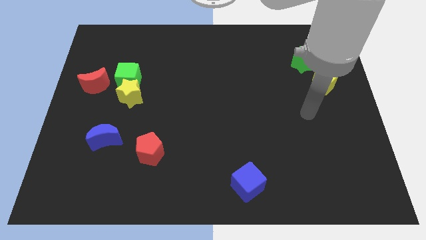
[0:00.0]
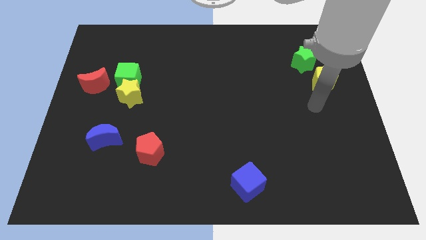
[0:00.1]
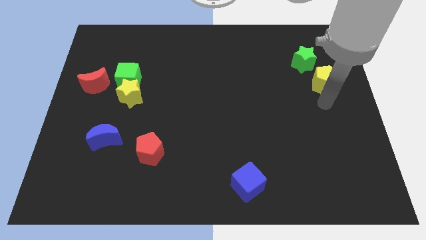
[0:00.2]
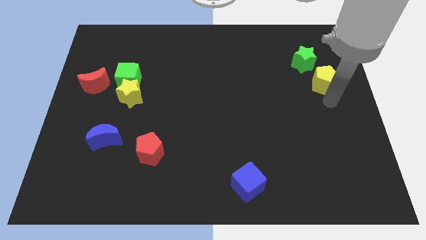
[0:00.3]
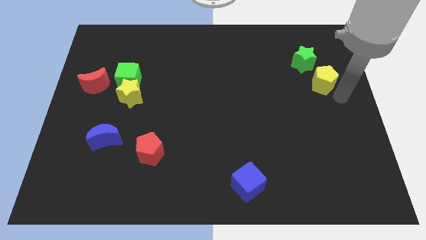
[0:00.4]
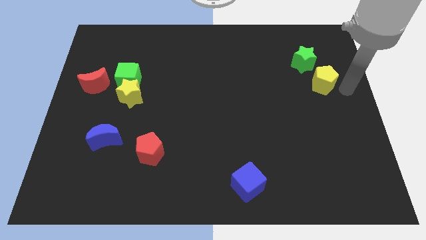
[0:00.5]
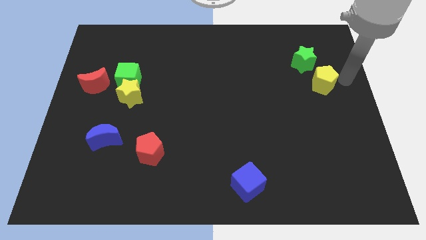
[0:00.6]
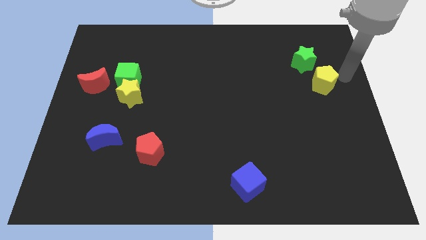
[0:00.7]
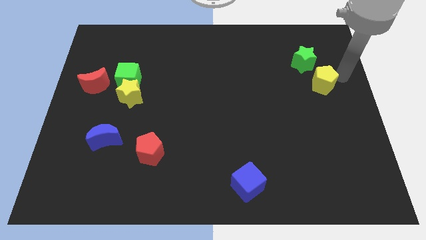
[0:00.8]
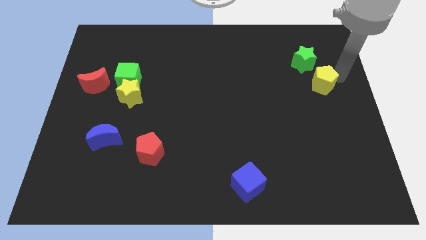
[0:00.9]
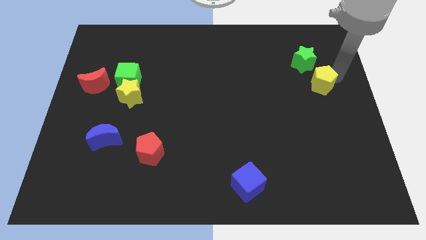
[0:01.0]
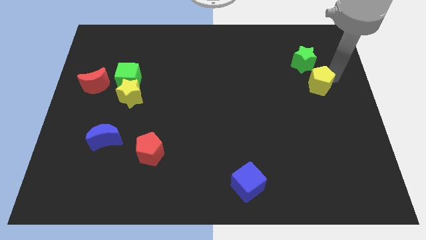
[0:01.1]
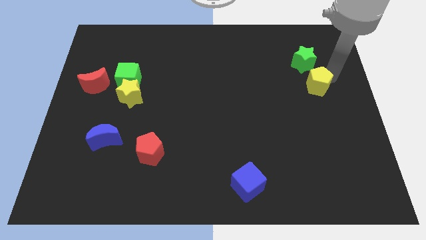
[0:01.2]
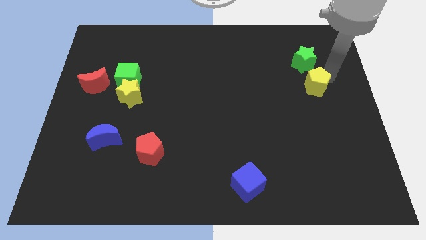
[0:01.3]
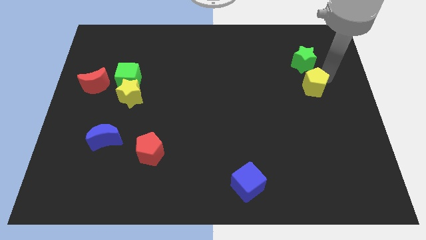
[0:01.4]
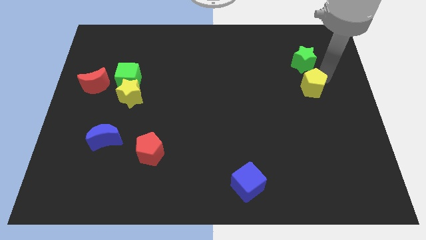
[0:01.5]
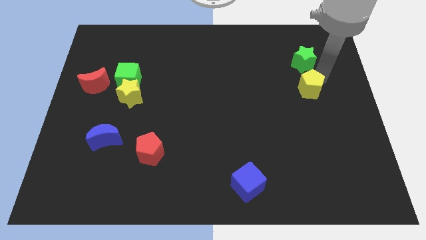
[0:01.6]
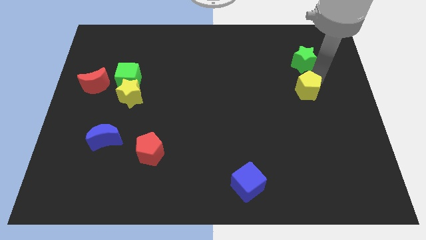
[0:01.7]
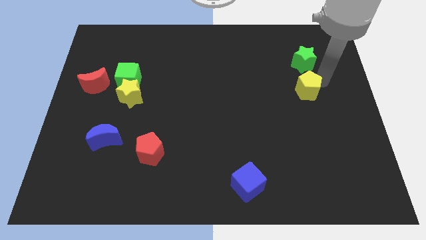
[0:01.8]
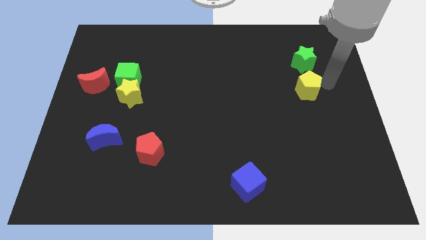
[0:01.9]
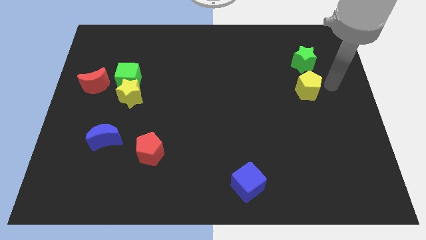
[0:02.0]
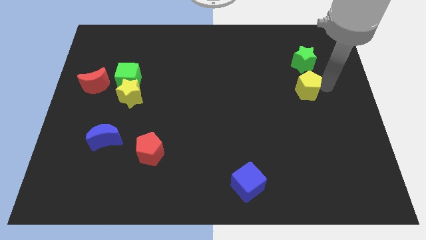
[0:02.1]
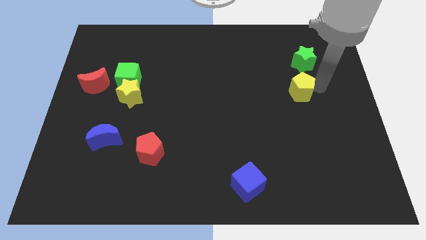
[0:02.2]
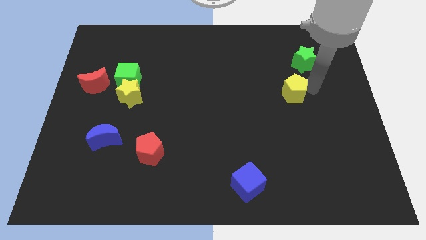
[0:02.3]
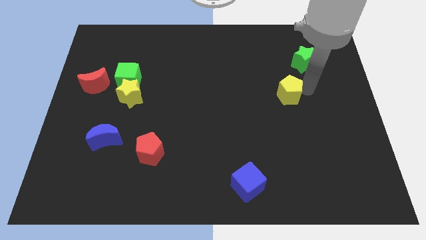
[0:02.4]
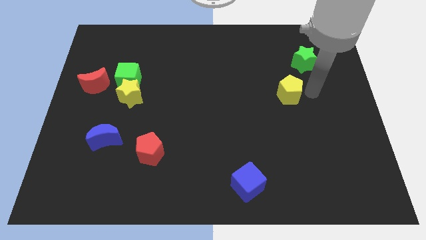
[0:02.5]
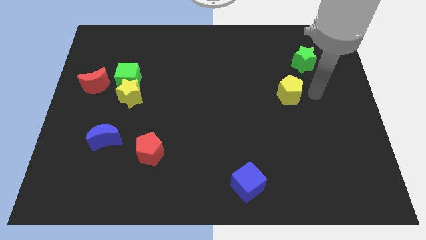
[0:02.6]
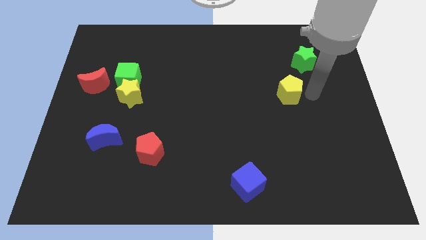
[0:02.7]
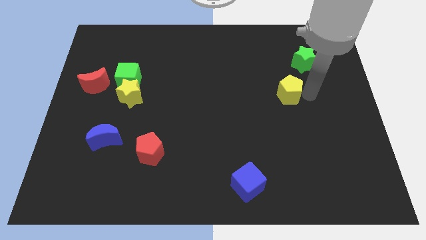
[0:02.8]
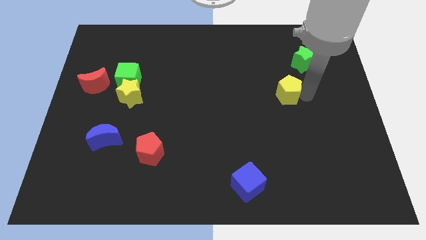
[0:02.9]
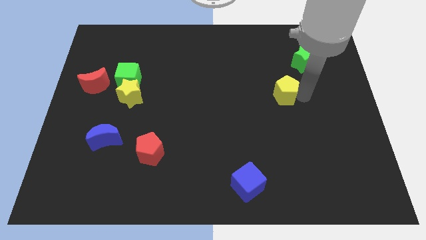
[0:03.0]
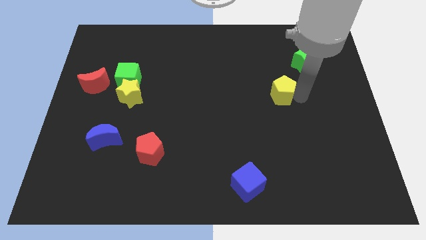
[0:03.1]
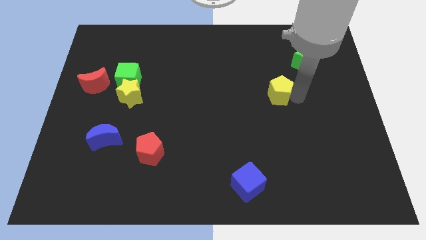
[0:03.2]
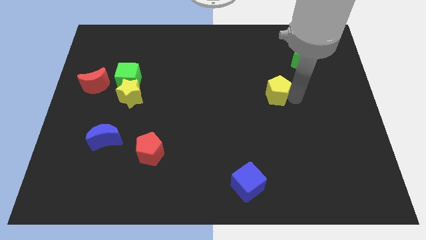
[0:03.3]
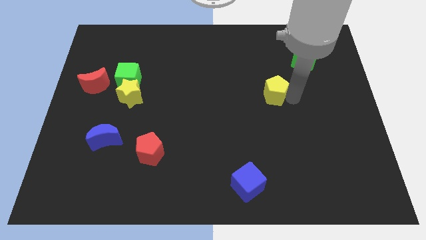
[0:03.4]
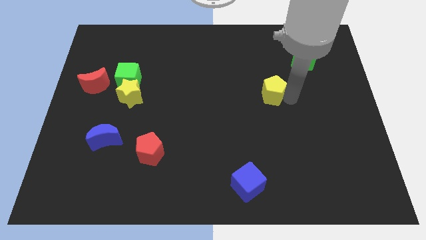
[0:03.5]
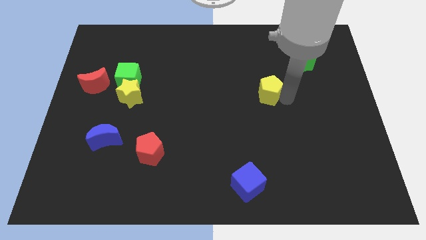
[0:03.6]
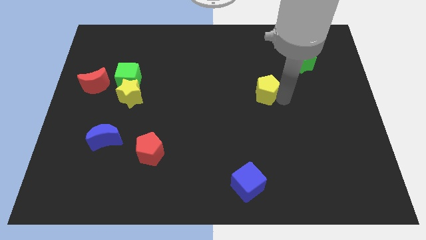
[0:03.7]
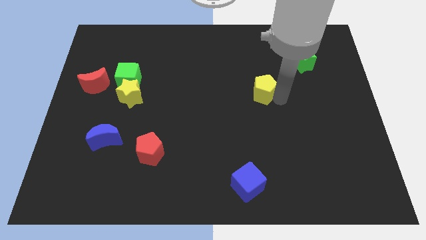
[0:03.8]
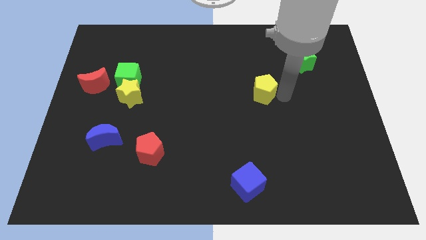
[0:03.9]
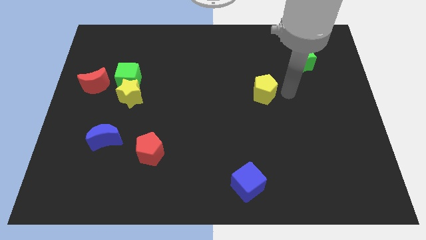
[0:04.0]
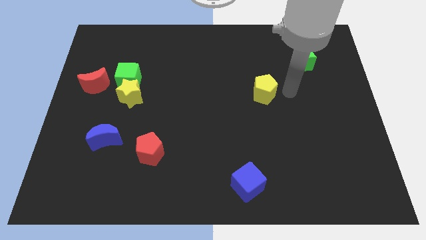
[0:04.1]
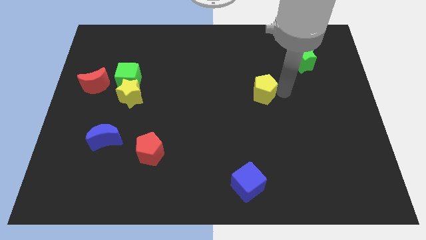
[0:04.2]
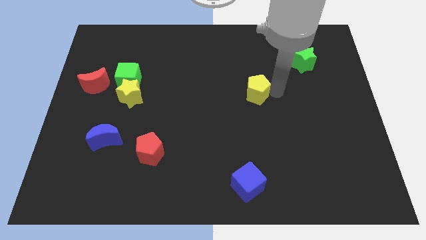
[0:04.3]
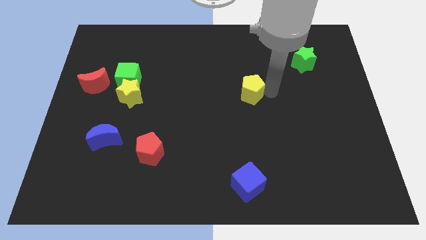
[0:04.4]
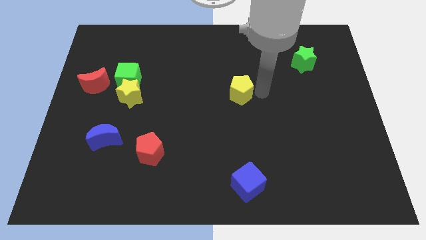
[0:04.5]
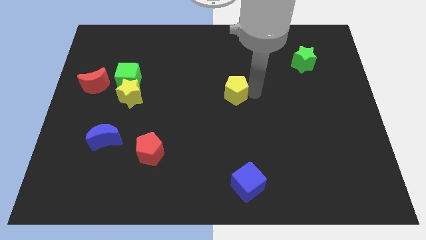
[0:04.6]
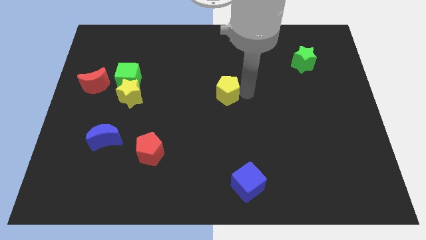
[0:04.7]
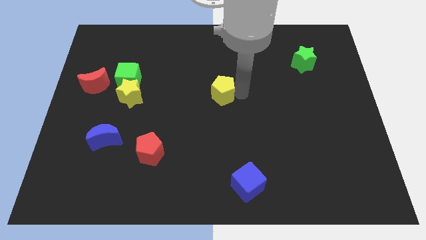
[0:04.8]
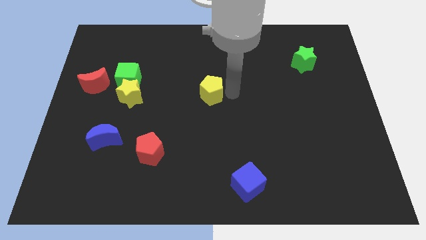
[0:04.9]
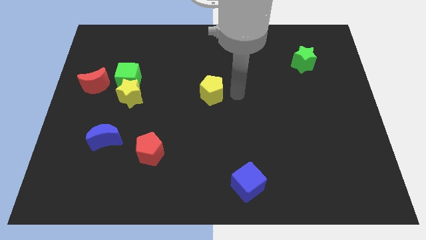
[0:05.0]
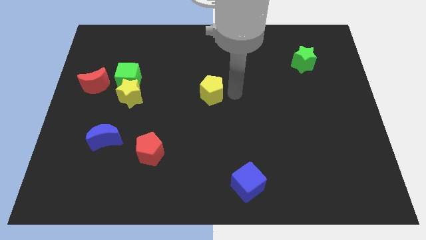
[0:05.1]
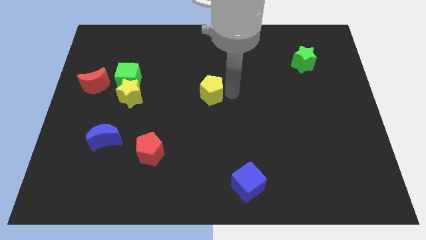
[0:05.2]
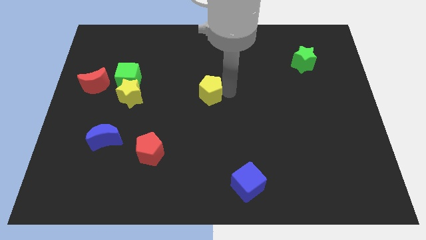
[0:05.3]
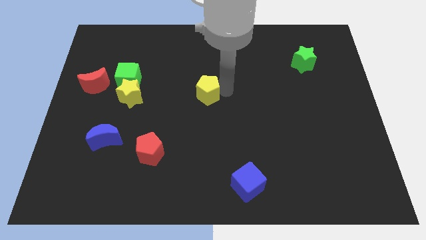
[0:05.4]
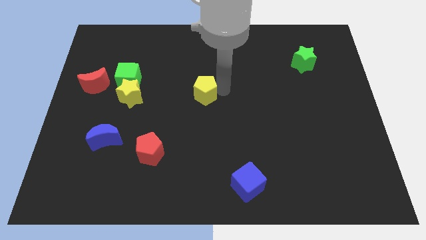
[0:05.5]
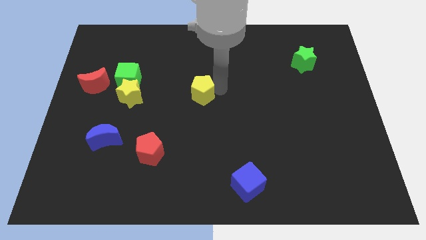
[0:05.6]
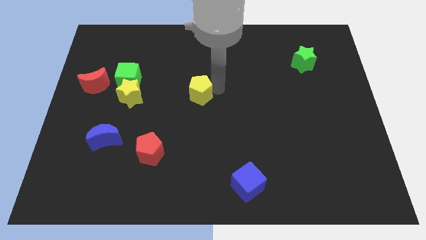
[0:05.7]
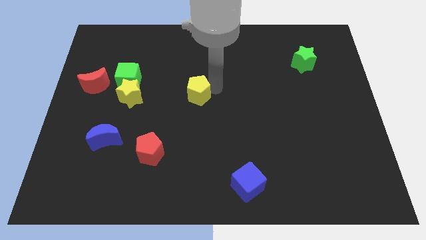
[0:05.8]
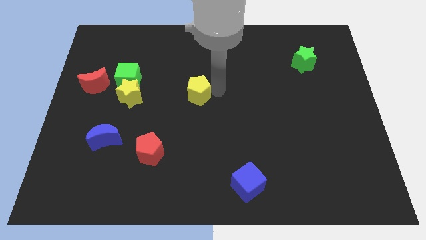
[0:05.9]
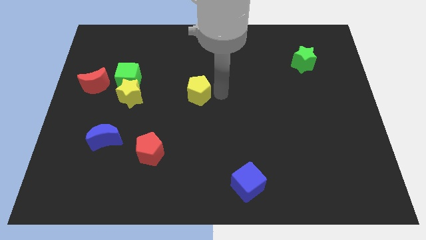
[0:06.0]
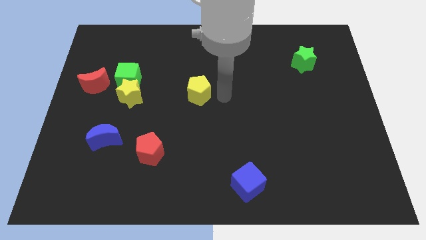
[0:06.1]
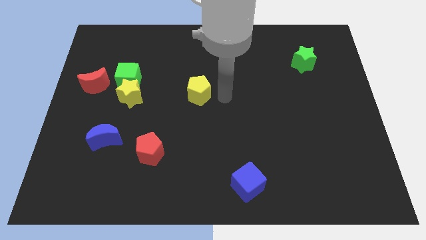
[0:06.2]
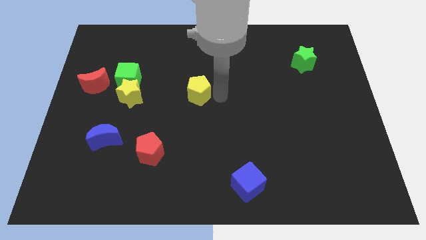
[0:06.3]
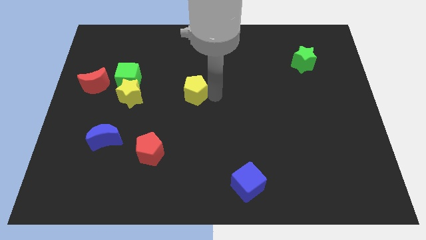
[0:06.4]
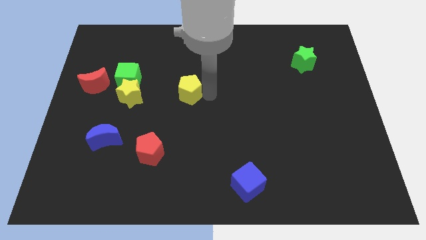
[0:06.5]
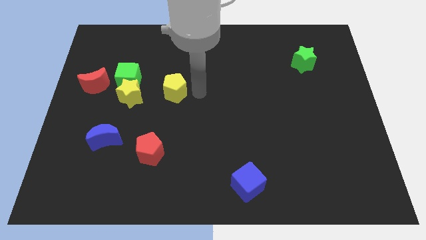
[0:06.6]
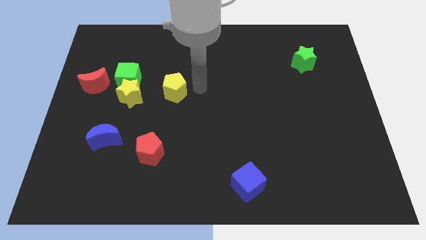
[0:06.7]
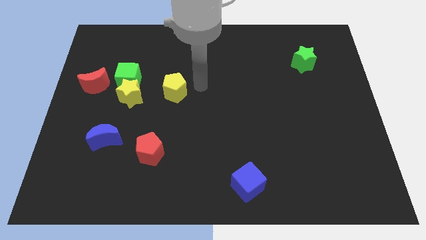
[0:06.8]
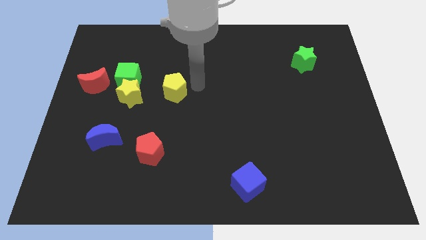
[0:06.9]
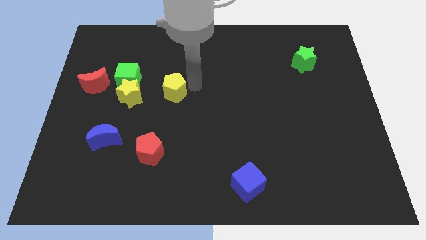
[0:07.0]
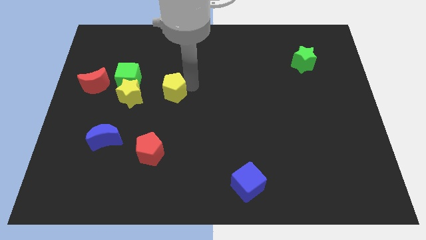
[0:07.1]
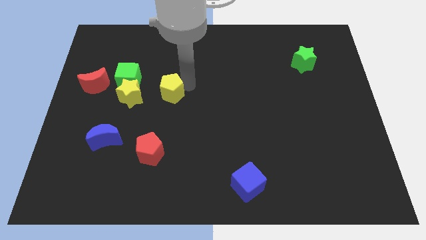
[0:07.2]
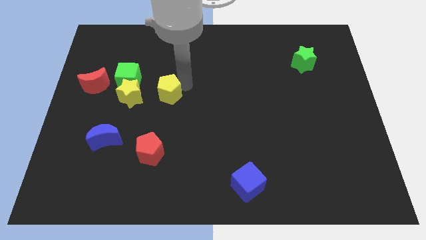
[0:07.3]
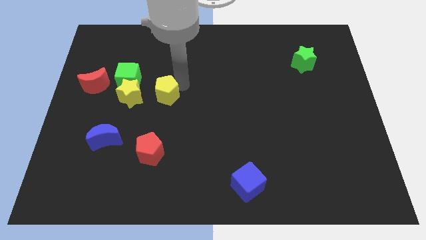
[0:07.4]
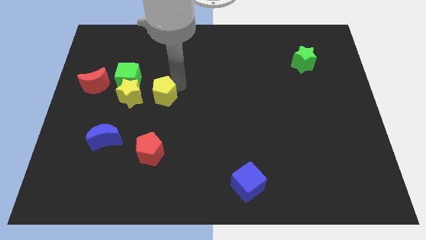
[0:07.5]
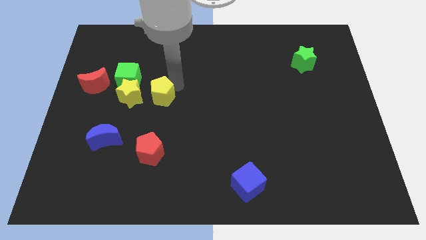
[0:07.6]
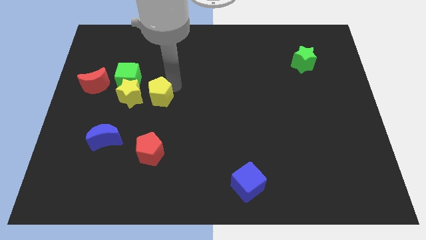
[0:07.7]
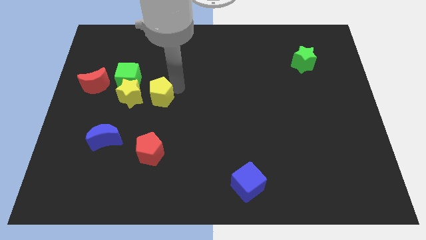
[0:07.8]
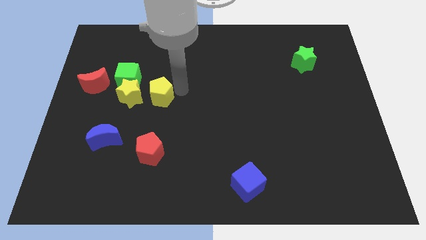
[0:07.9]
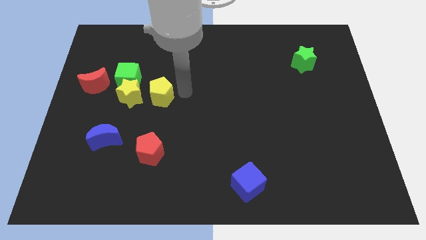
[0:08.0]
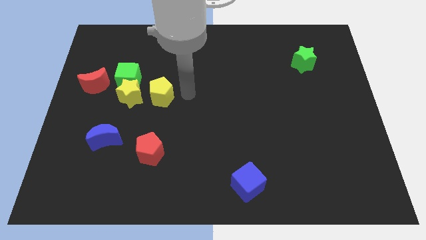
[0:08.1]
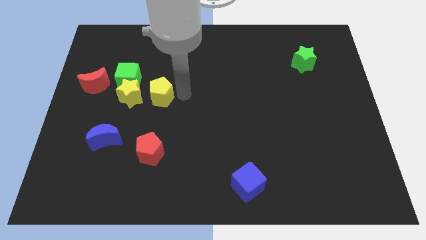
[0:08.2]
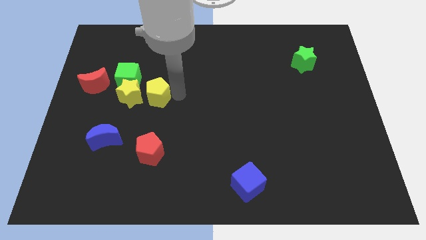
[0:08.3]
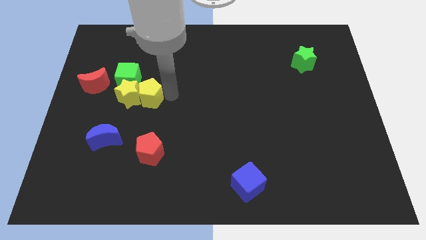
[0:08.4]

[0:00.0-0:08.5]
push the yellow pentagon next to the yellow star
